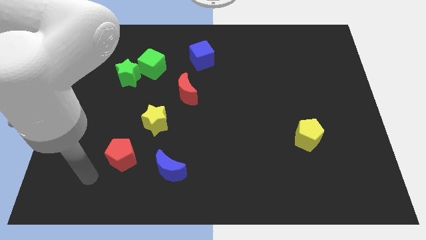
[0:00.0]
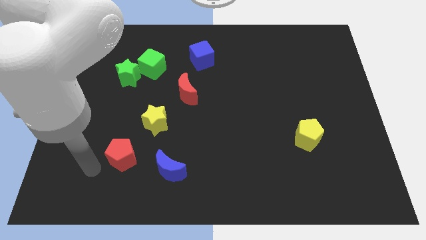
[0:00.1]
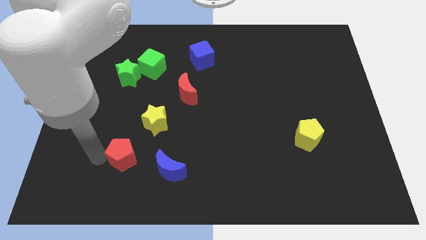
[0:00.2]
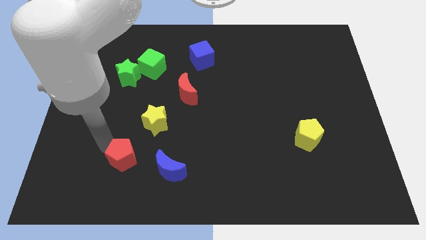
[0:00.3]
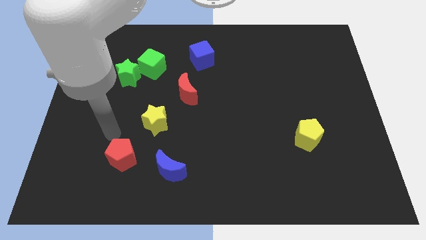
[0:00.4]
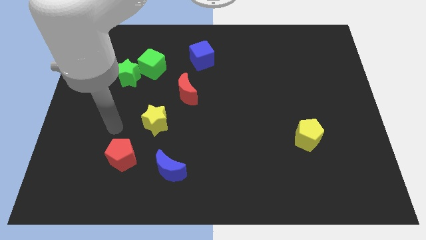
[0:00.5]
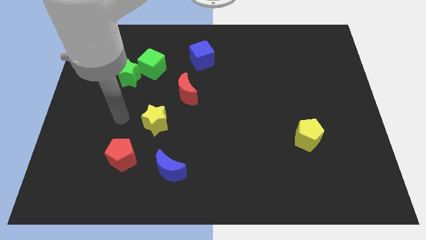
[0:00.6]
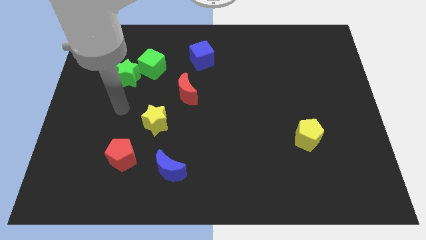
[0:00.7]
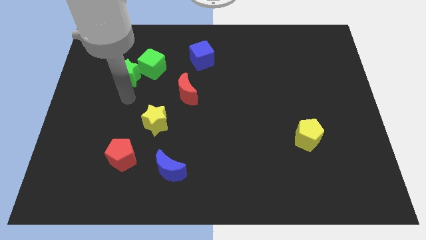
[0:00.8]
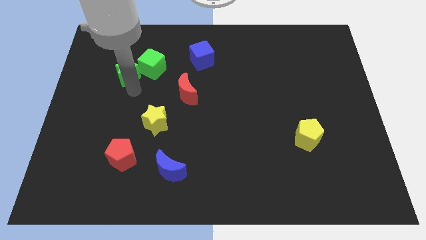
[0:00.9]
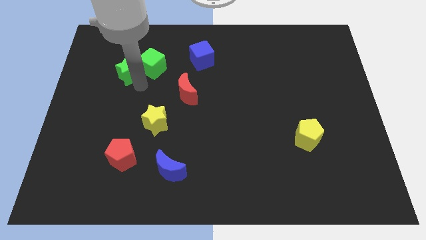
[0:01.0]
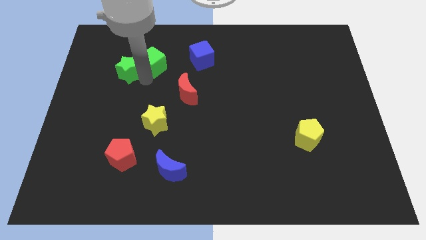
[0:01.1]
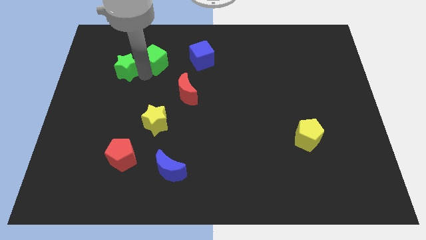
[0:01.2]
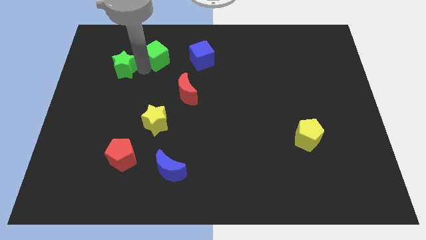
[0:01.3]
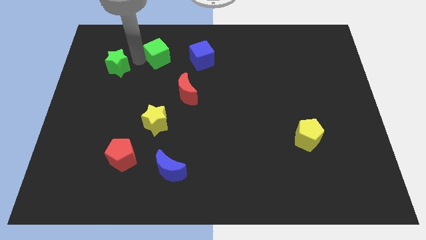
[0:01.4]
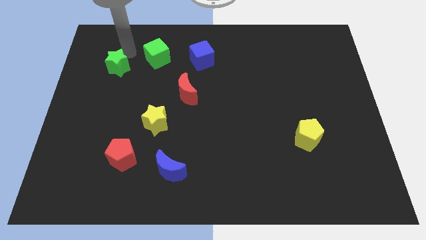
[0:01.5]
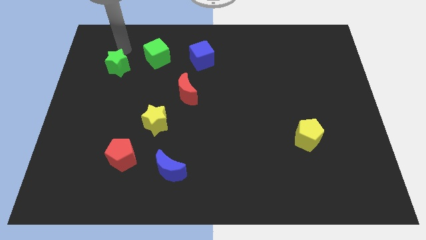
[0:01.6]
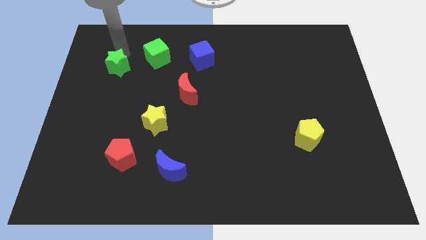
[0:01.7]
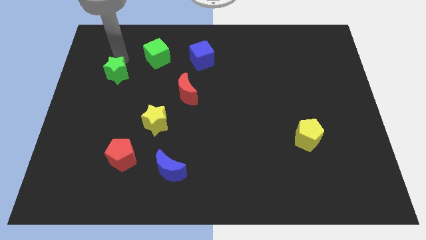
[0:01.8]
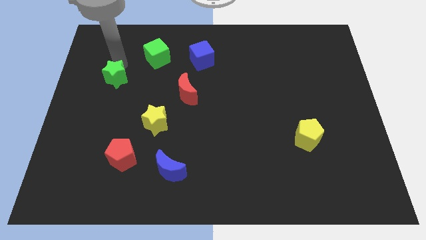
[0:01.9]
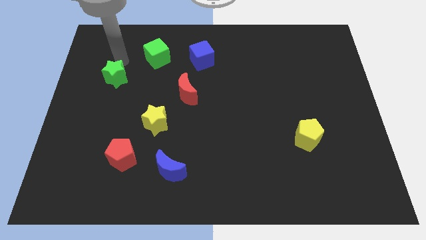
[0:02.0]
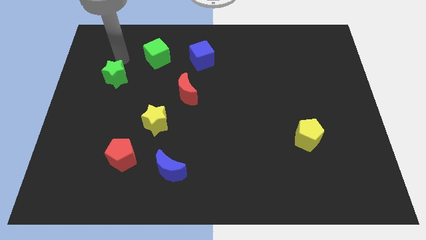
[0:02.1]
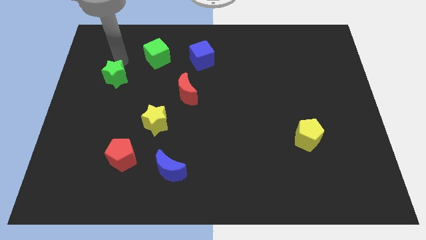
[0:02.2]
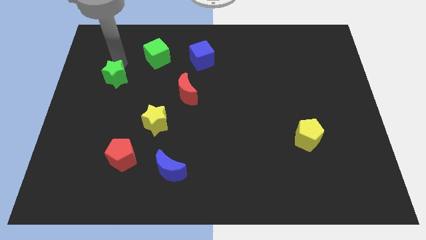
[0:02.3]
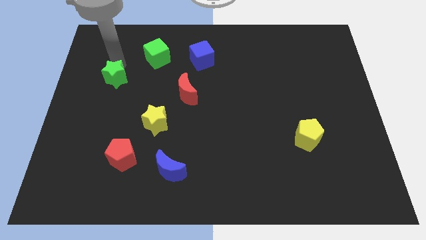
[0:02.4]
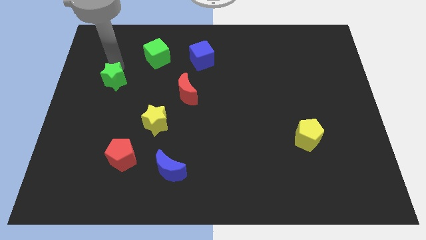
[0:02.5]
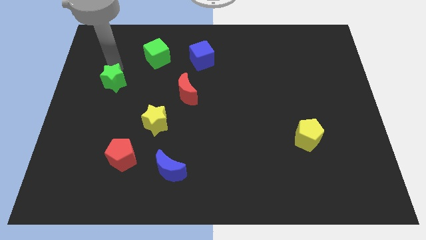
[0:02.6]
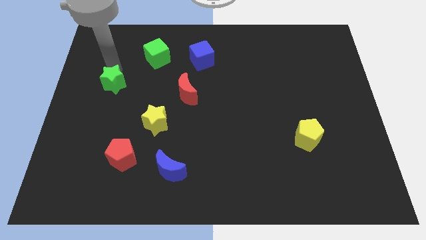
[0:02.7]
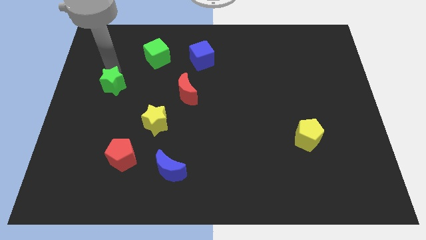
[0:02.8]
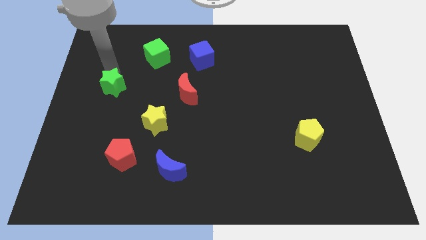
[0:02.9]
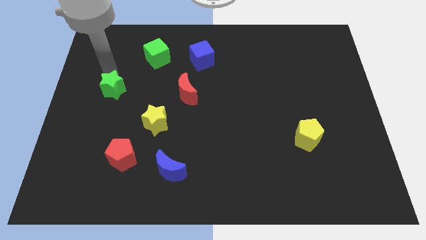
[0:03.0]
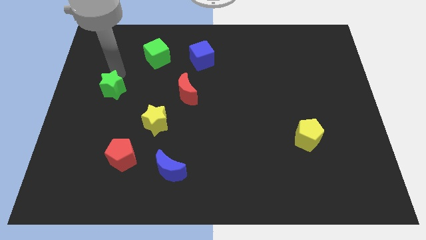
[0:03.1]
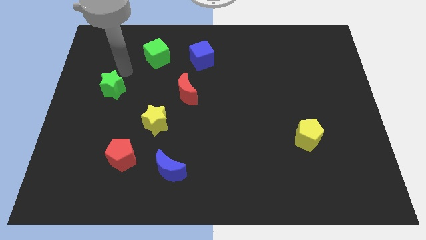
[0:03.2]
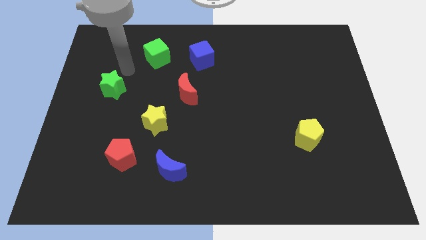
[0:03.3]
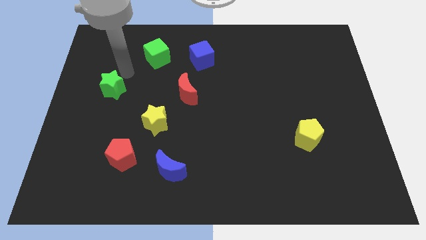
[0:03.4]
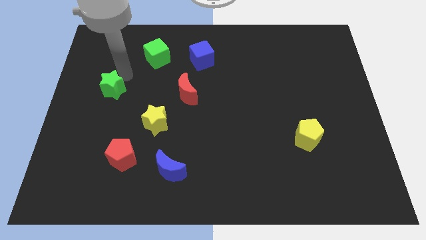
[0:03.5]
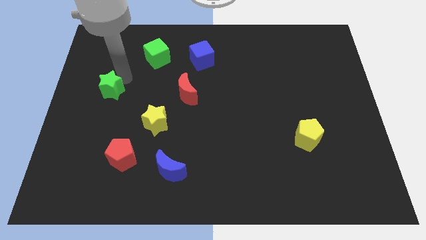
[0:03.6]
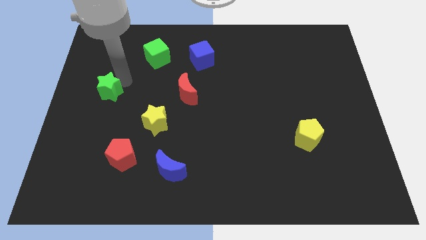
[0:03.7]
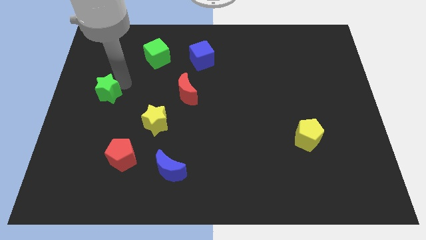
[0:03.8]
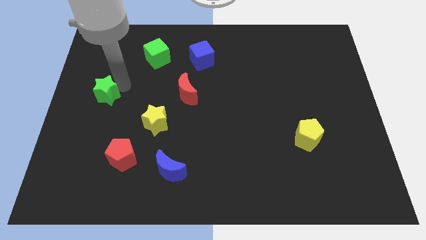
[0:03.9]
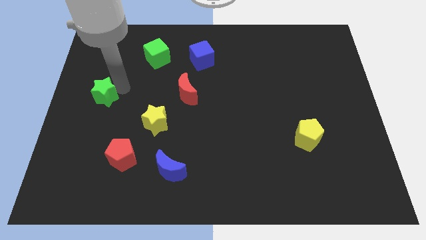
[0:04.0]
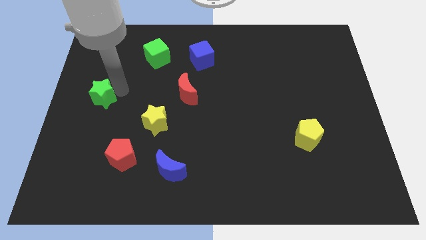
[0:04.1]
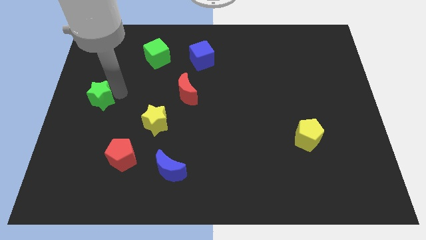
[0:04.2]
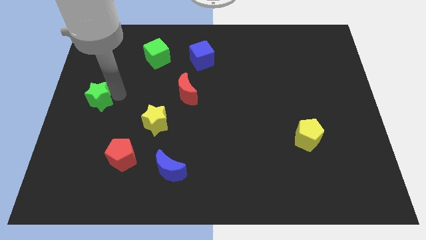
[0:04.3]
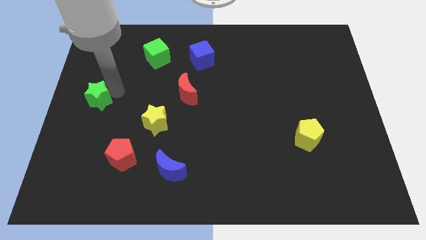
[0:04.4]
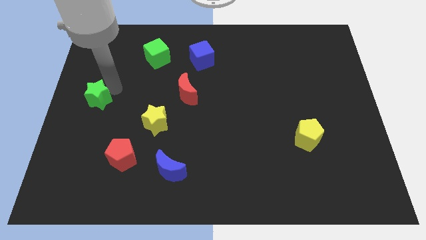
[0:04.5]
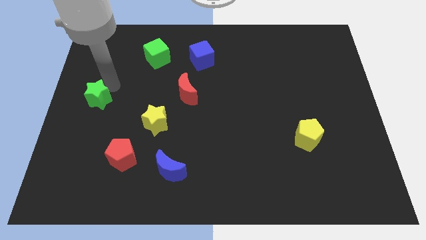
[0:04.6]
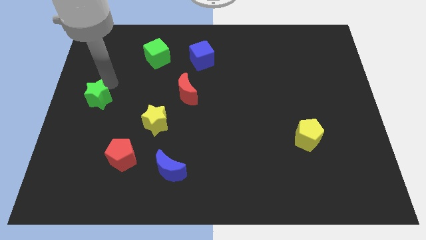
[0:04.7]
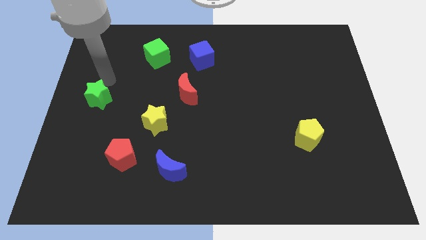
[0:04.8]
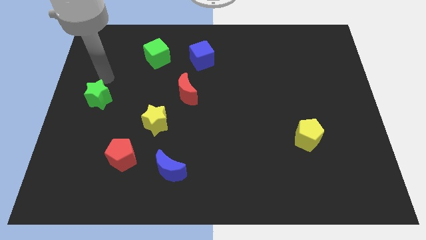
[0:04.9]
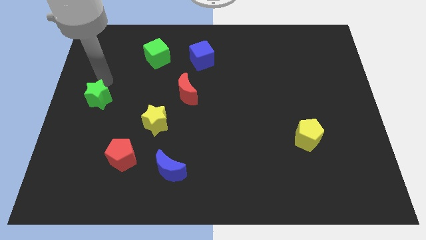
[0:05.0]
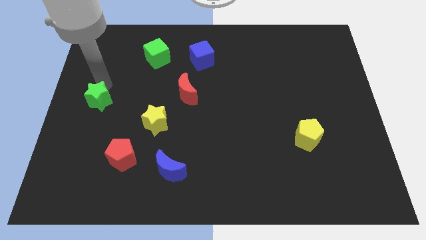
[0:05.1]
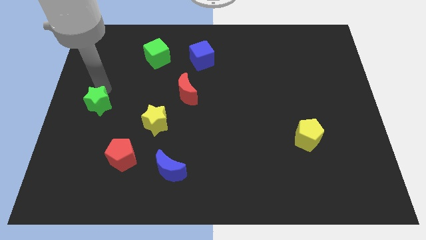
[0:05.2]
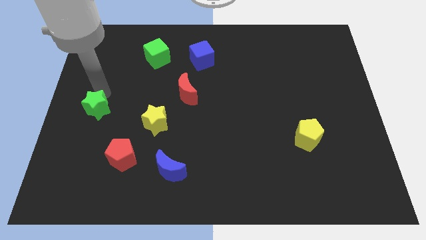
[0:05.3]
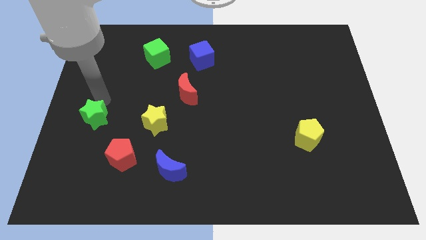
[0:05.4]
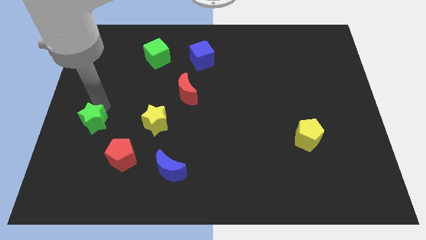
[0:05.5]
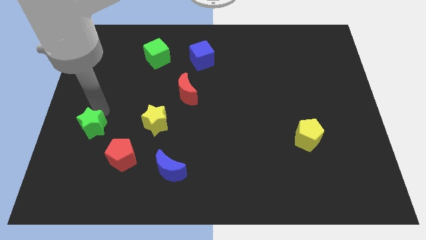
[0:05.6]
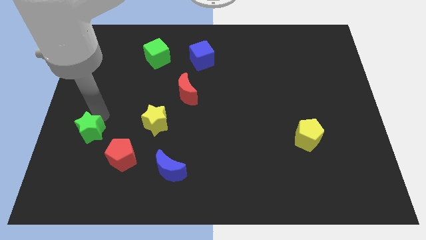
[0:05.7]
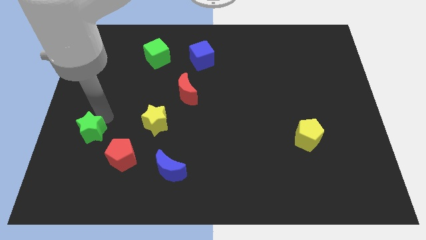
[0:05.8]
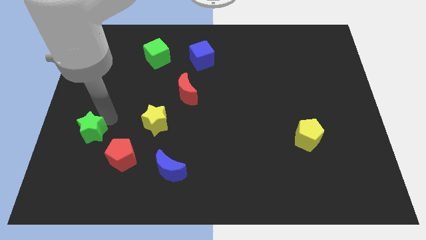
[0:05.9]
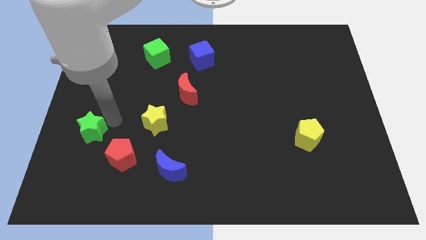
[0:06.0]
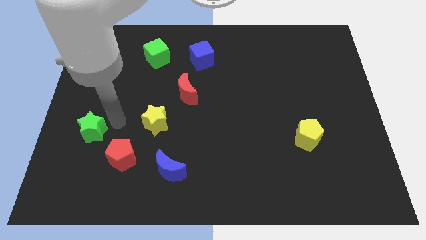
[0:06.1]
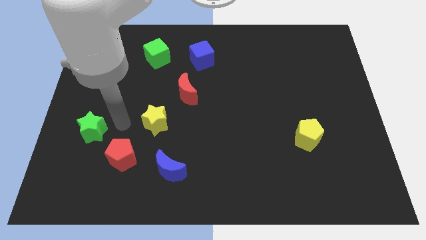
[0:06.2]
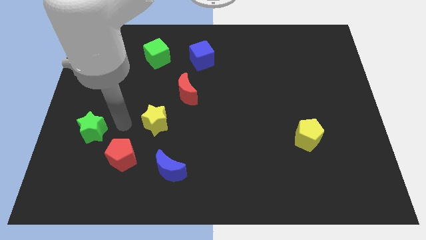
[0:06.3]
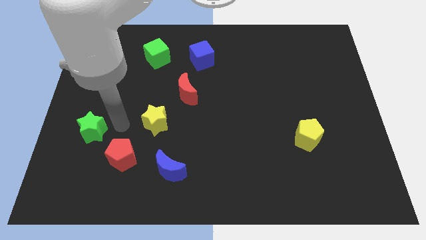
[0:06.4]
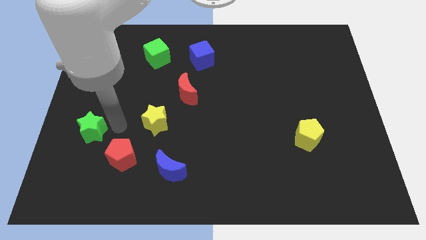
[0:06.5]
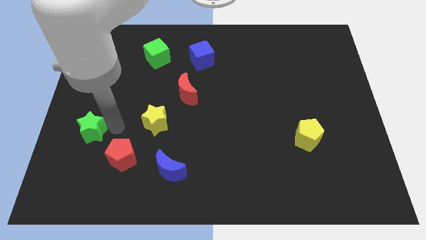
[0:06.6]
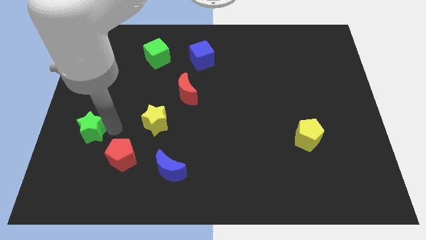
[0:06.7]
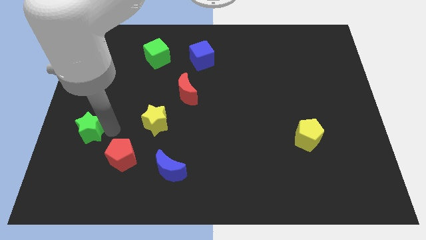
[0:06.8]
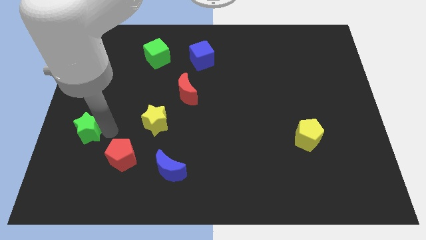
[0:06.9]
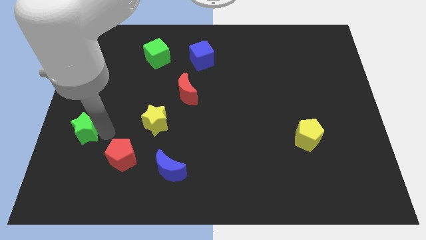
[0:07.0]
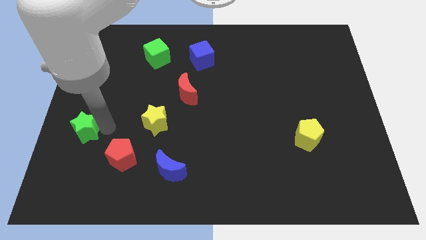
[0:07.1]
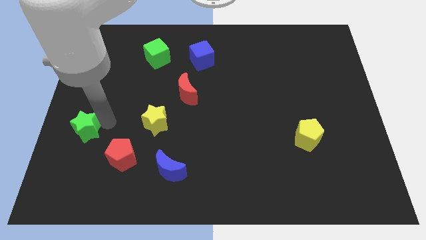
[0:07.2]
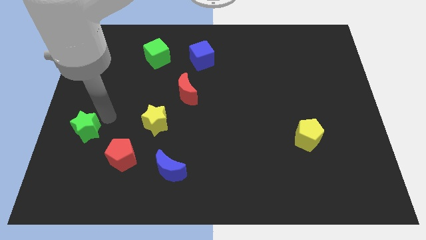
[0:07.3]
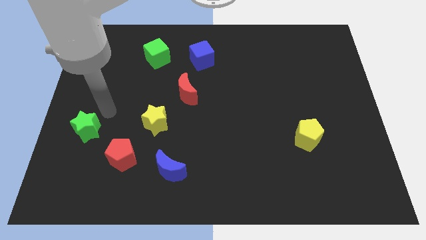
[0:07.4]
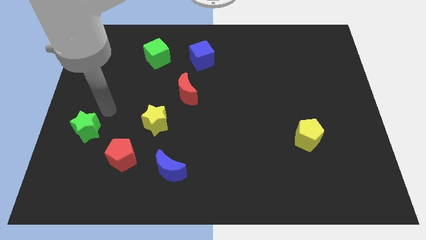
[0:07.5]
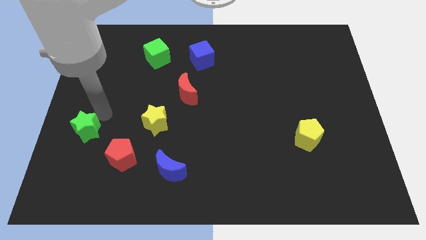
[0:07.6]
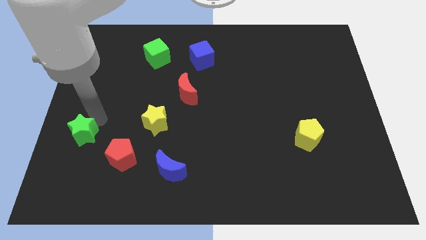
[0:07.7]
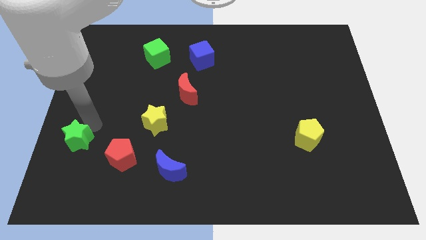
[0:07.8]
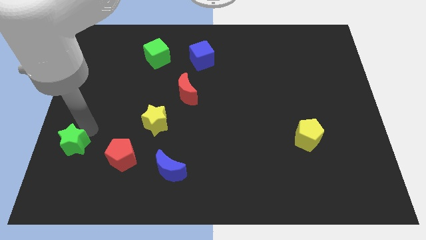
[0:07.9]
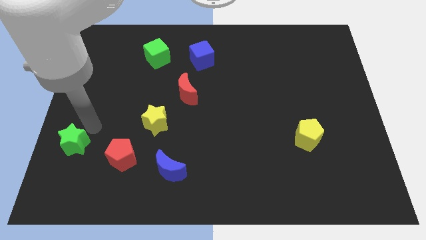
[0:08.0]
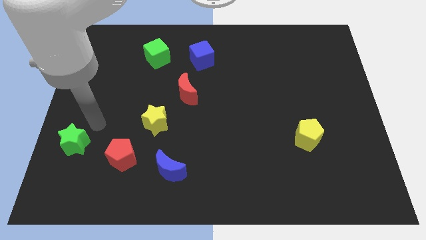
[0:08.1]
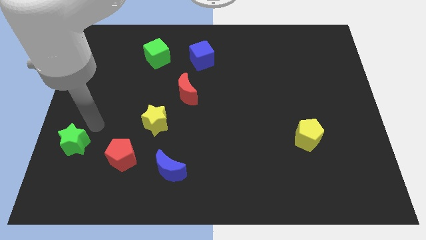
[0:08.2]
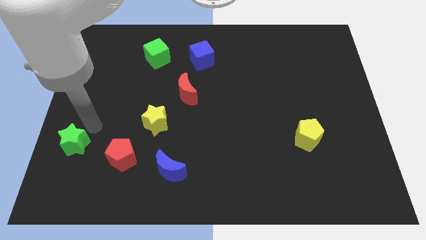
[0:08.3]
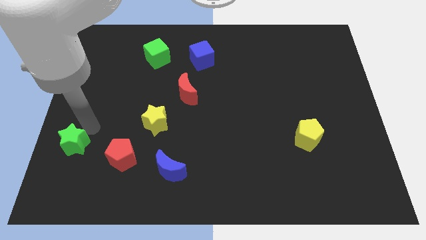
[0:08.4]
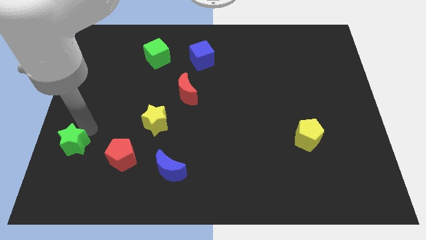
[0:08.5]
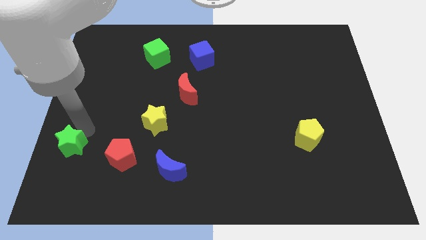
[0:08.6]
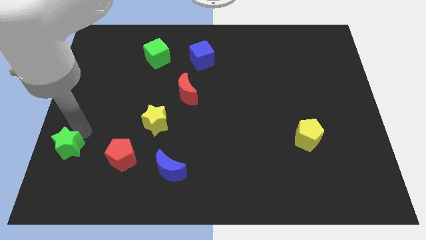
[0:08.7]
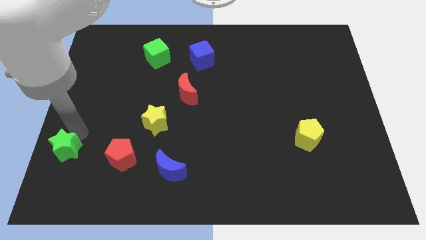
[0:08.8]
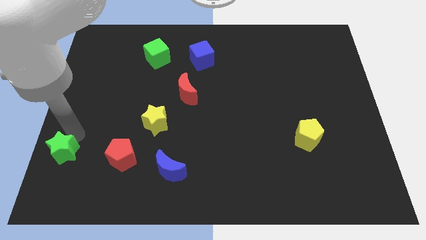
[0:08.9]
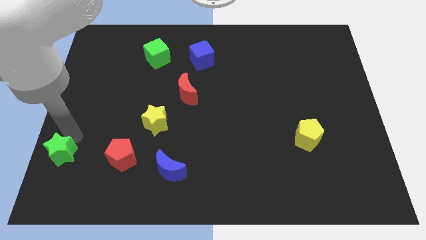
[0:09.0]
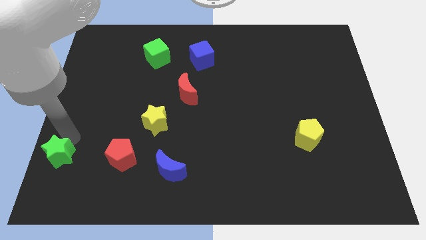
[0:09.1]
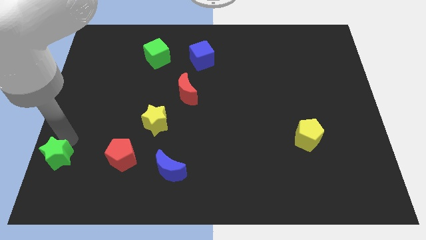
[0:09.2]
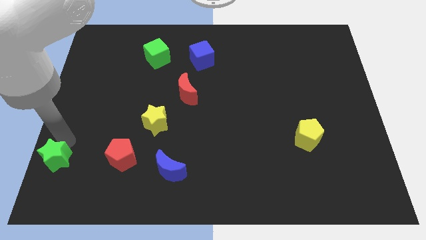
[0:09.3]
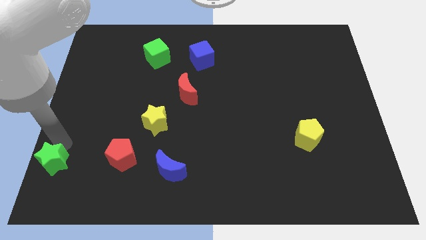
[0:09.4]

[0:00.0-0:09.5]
push the green star to the bottom left of the board
